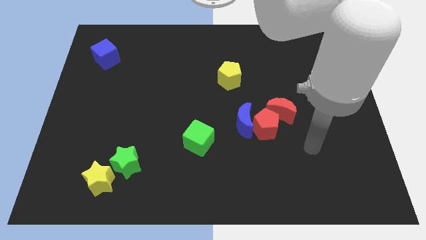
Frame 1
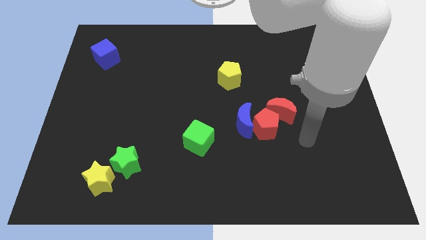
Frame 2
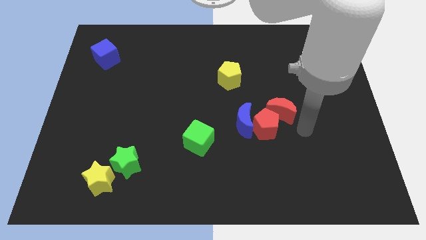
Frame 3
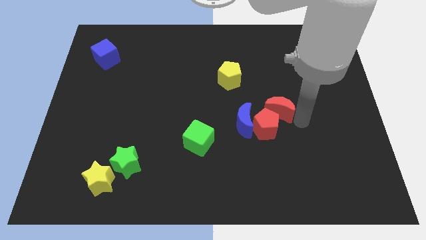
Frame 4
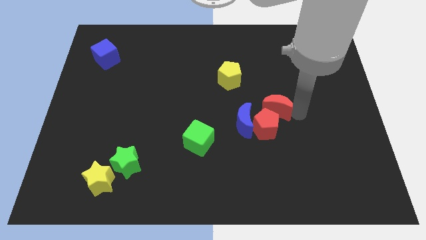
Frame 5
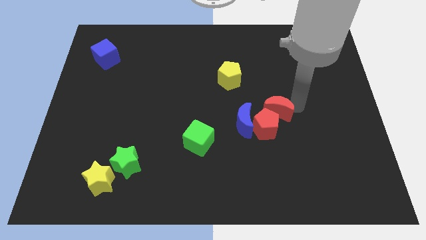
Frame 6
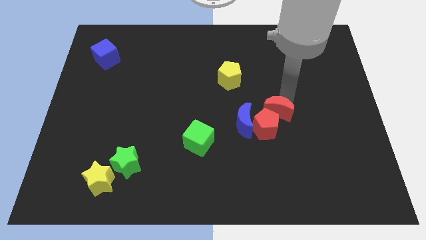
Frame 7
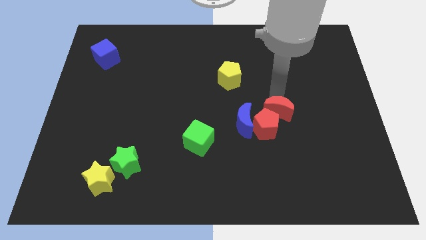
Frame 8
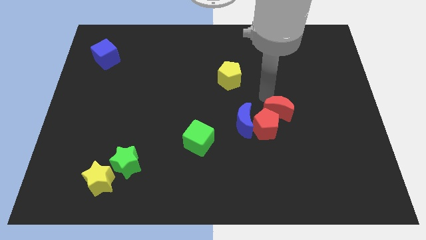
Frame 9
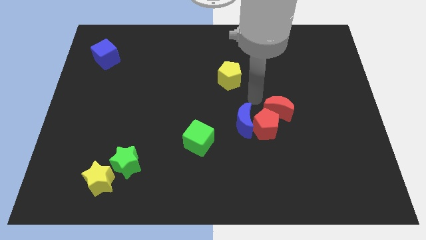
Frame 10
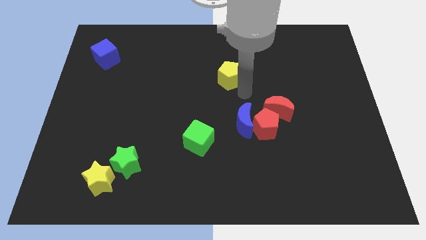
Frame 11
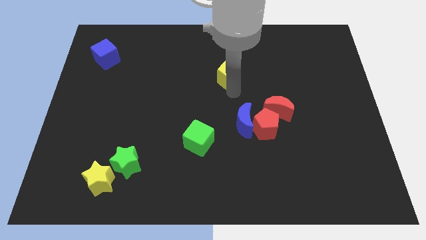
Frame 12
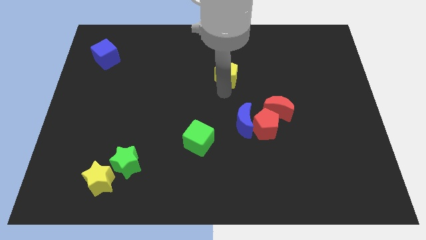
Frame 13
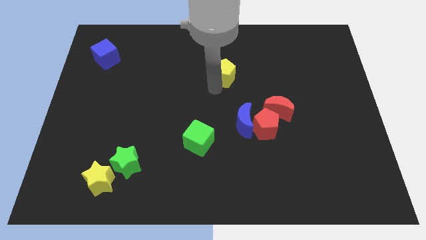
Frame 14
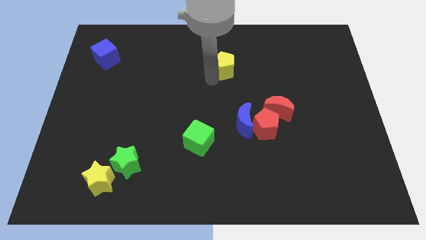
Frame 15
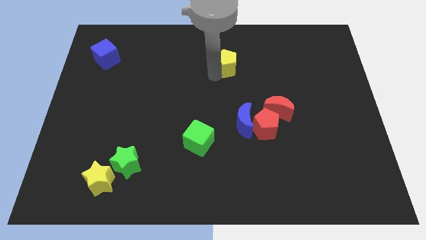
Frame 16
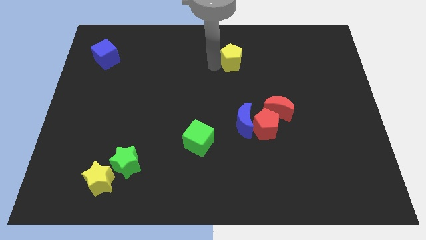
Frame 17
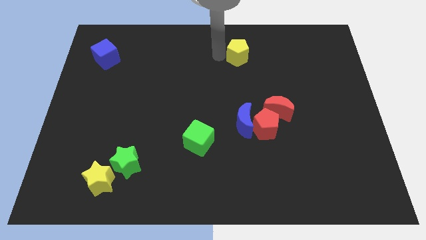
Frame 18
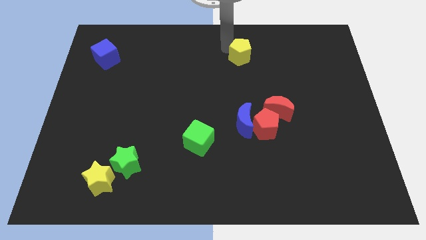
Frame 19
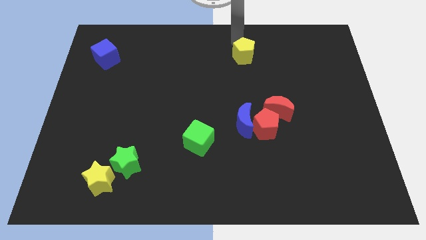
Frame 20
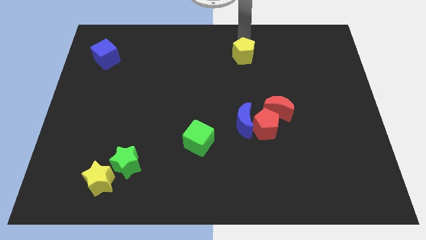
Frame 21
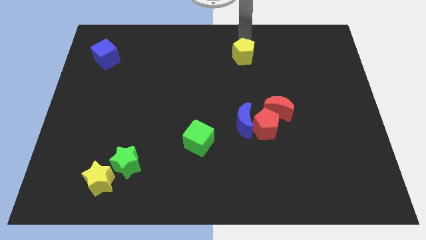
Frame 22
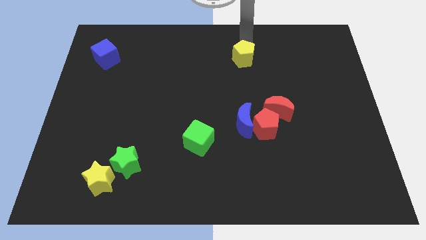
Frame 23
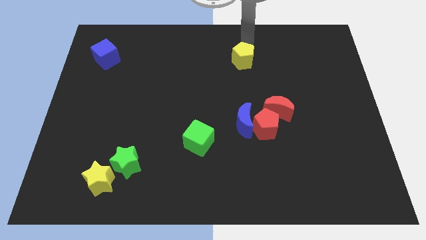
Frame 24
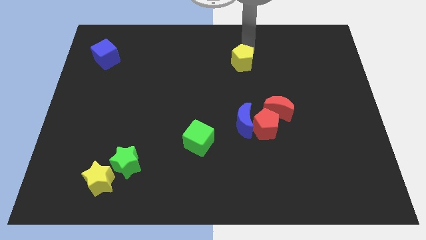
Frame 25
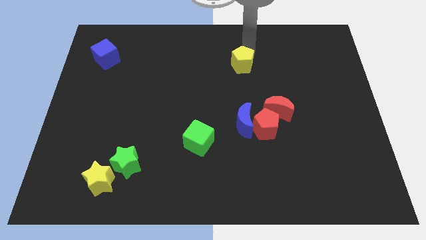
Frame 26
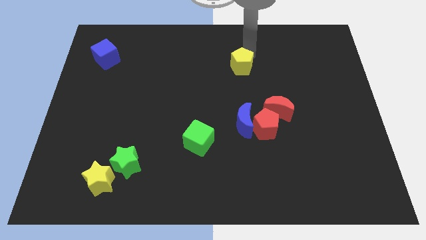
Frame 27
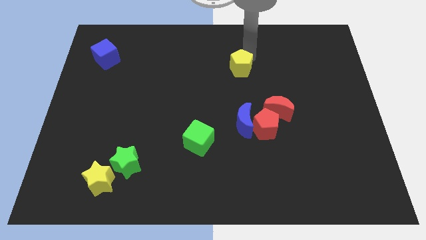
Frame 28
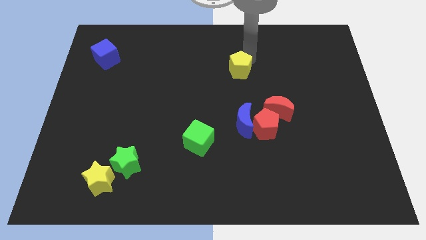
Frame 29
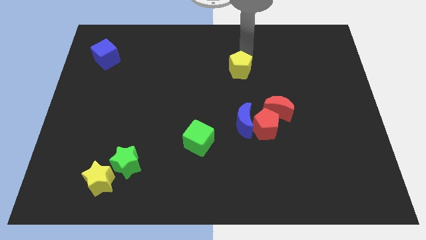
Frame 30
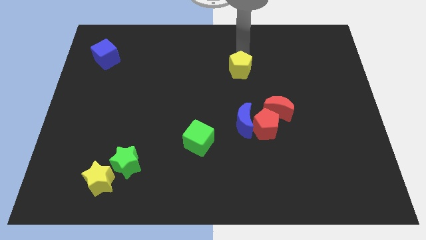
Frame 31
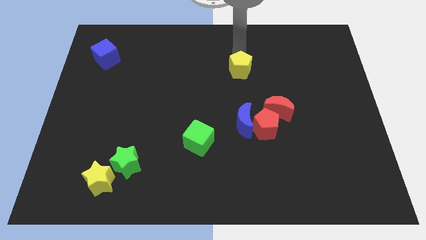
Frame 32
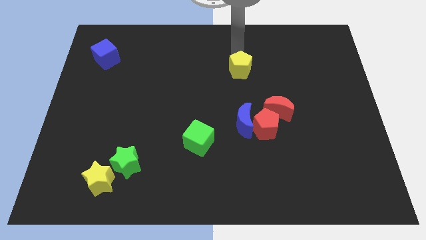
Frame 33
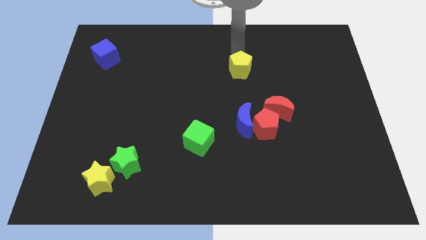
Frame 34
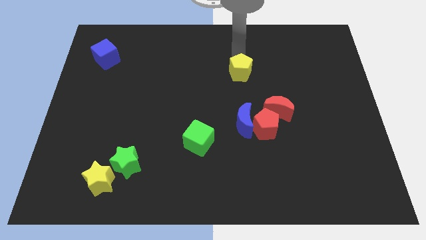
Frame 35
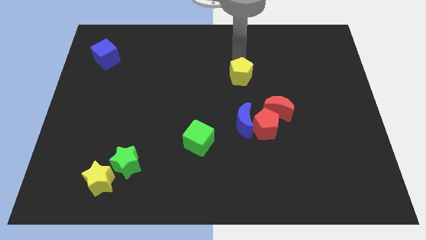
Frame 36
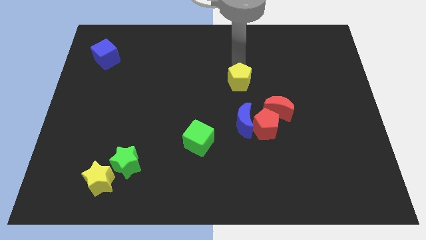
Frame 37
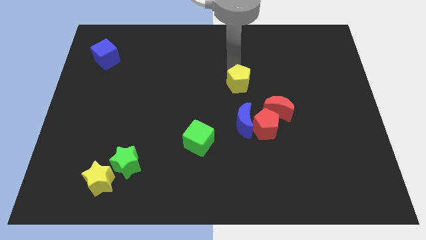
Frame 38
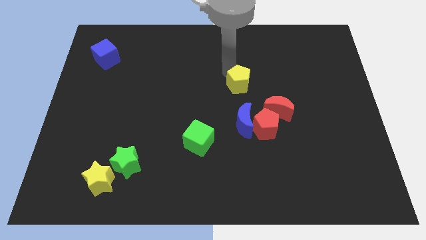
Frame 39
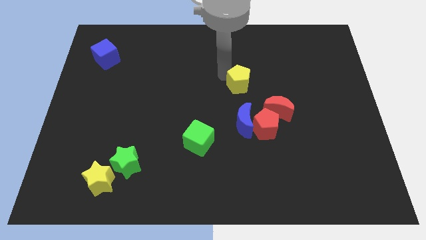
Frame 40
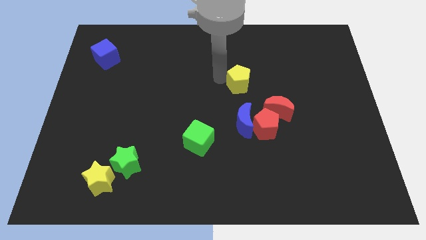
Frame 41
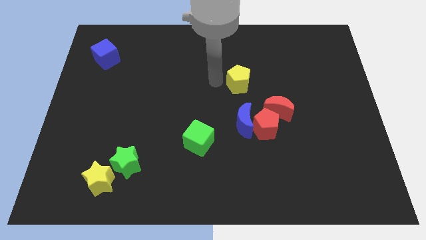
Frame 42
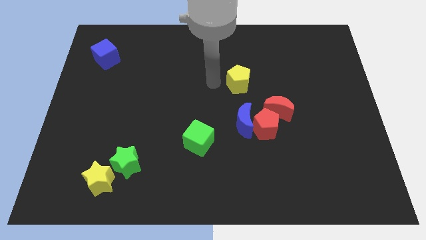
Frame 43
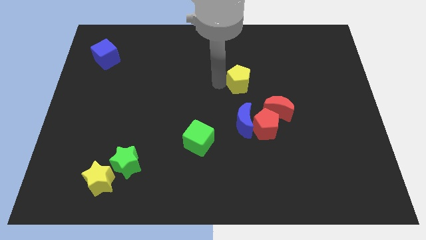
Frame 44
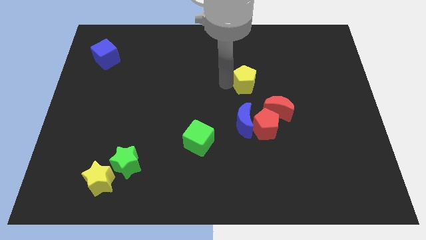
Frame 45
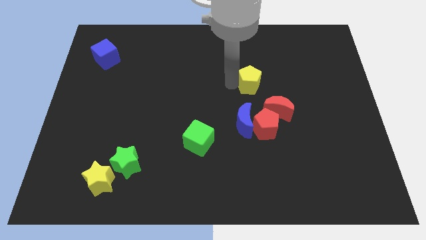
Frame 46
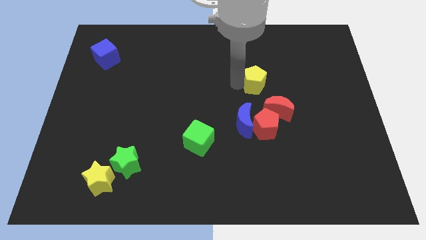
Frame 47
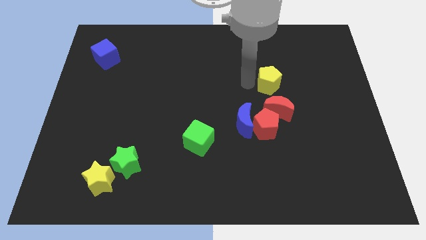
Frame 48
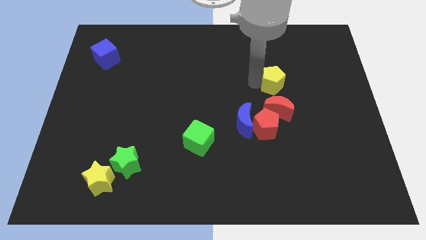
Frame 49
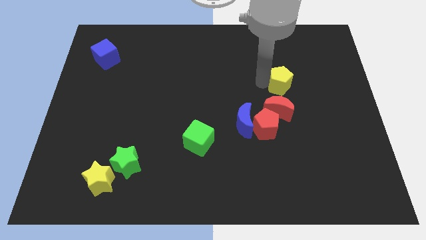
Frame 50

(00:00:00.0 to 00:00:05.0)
move the yellow pentagon diagonally up and to the right of the red moon

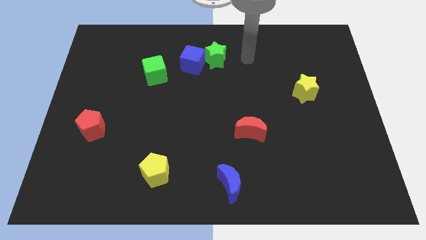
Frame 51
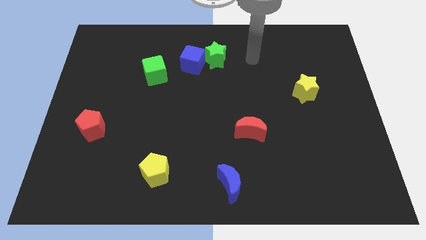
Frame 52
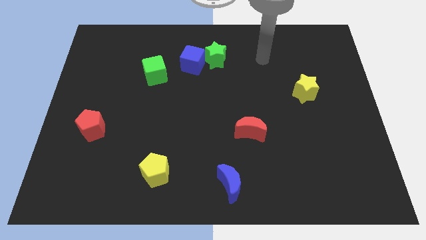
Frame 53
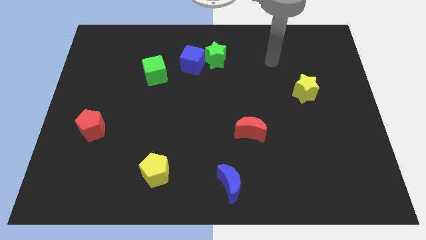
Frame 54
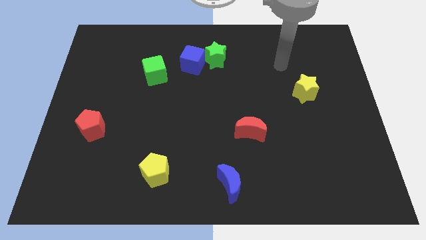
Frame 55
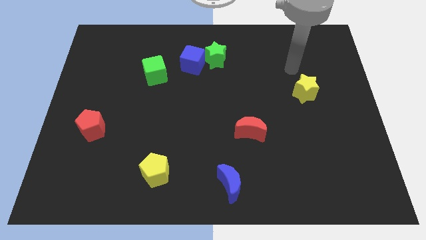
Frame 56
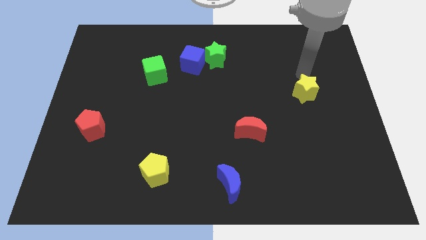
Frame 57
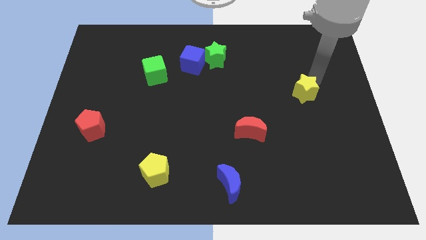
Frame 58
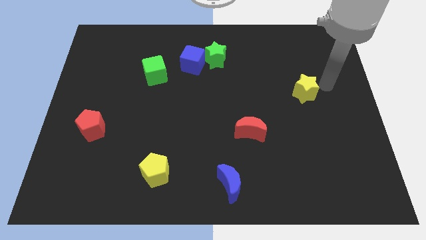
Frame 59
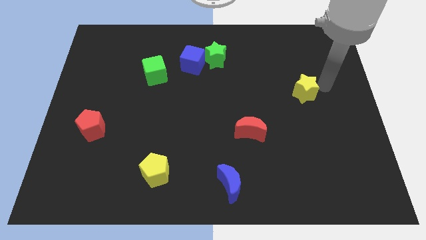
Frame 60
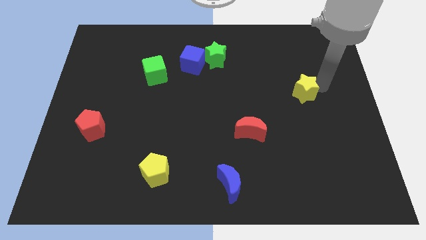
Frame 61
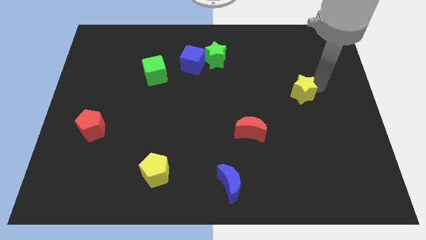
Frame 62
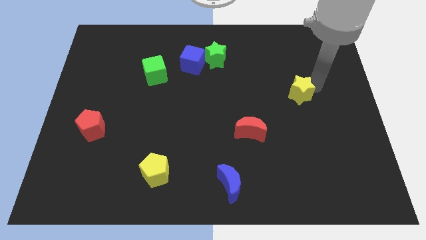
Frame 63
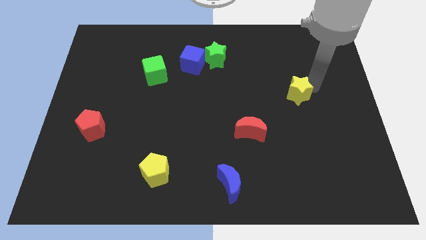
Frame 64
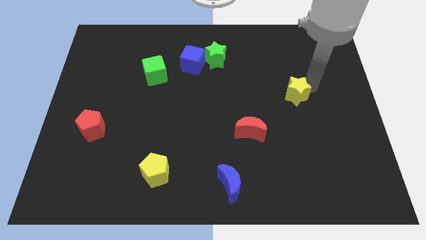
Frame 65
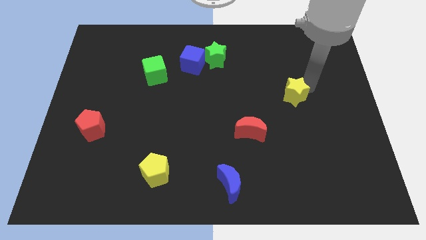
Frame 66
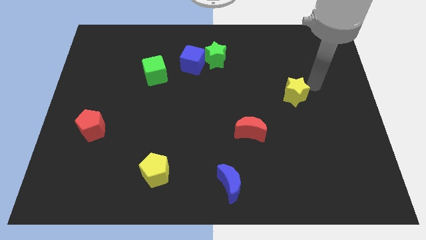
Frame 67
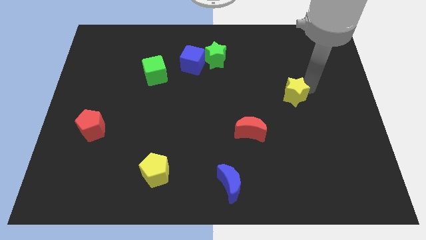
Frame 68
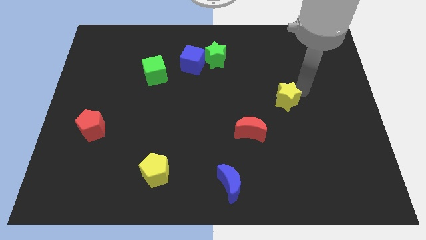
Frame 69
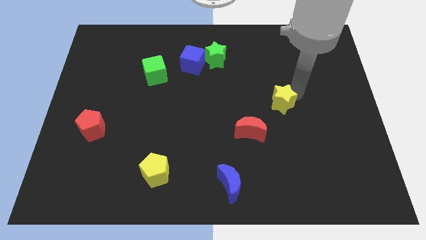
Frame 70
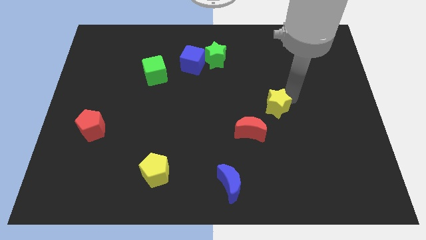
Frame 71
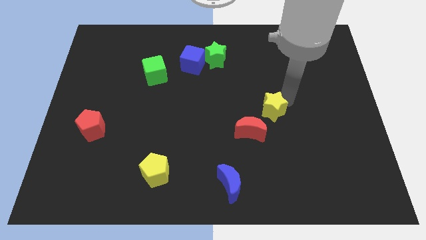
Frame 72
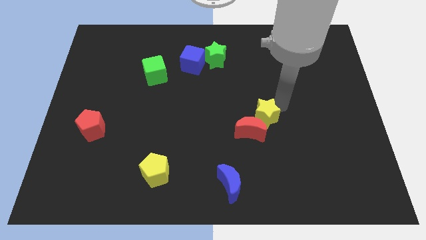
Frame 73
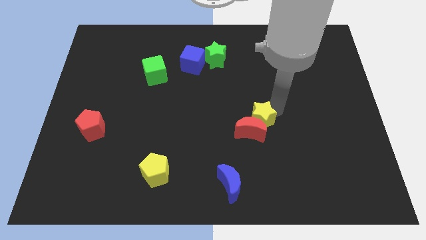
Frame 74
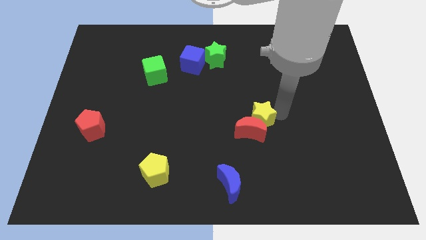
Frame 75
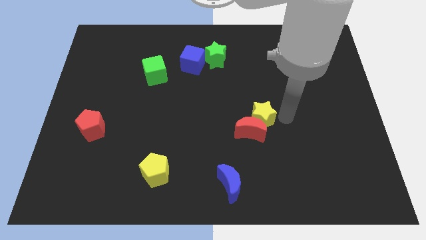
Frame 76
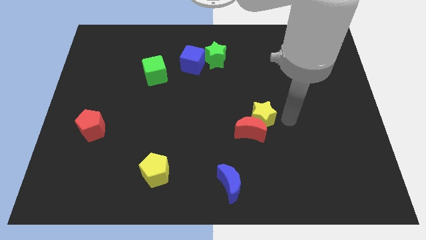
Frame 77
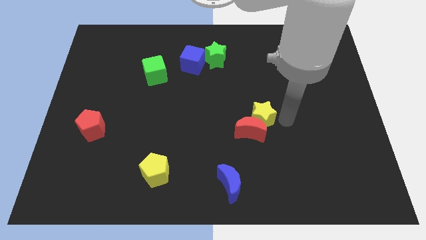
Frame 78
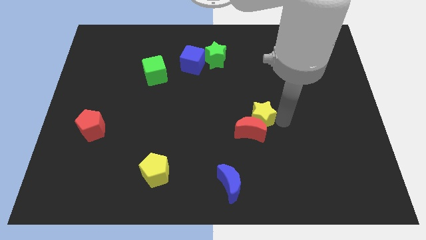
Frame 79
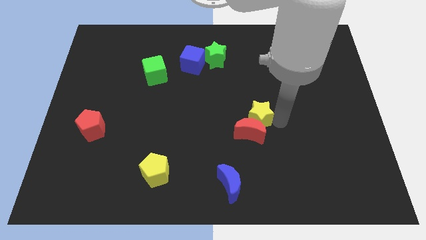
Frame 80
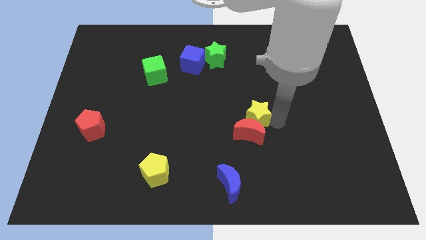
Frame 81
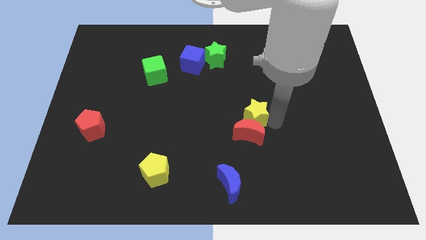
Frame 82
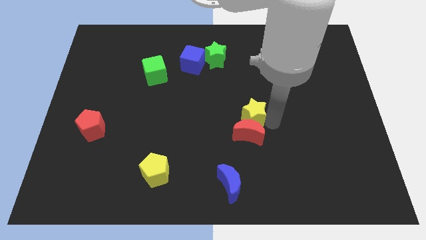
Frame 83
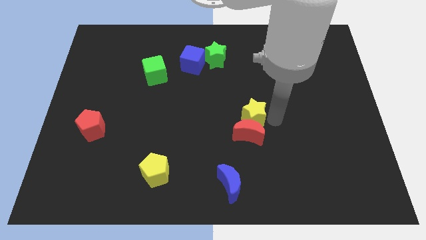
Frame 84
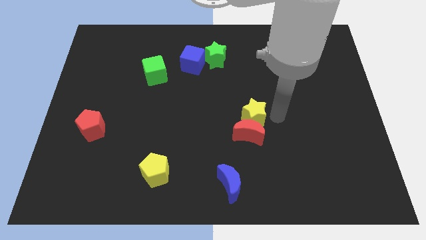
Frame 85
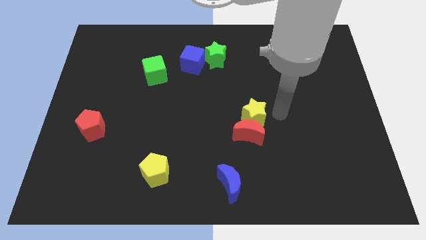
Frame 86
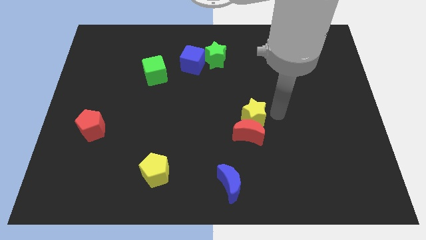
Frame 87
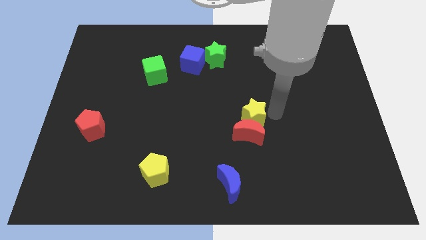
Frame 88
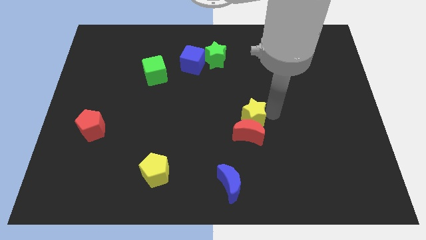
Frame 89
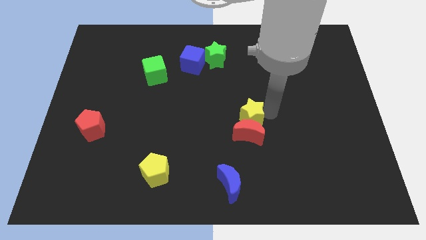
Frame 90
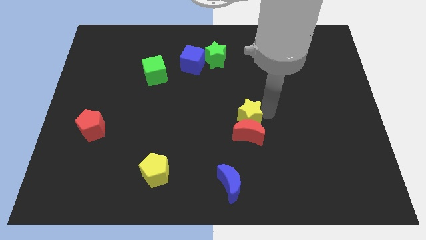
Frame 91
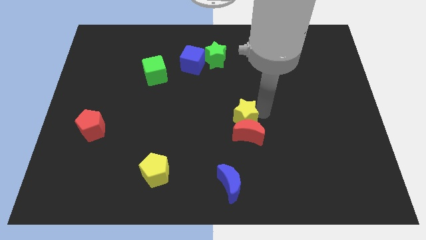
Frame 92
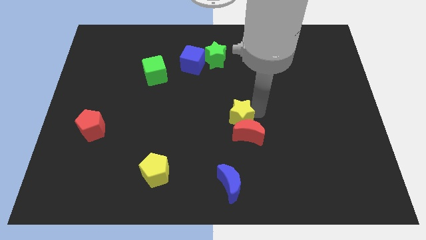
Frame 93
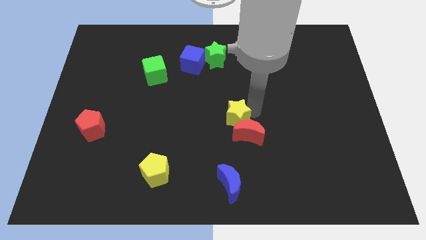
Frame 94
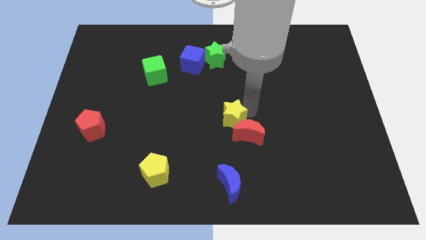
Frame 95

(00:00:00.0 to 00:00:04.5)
slide the yellow star just left of the red moon
